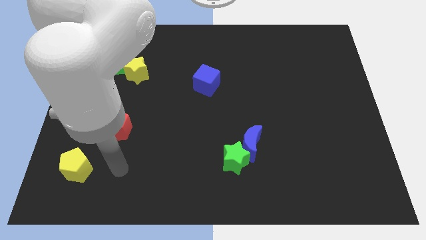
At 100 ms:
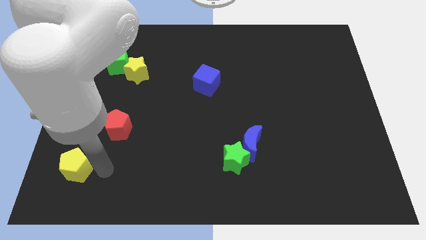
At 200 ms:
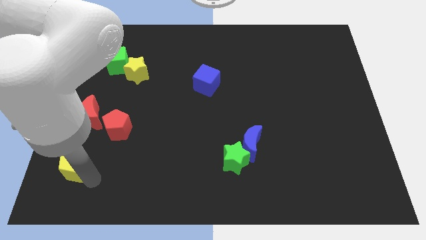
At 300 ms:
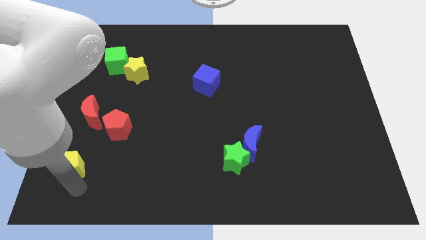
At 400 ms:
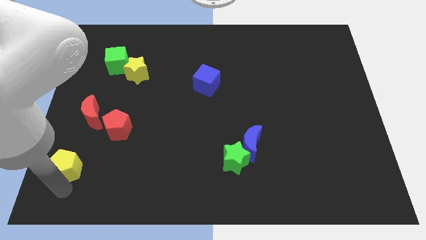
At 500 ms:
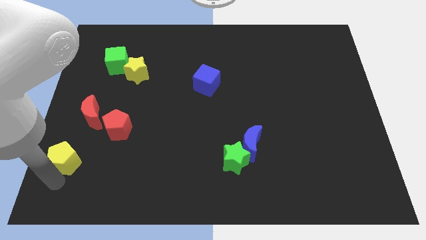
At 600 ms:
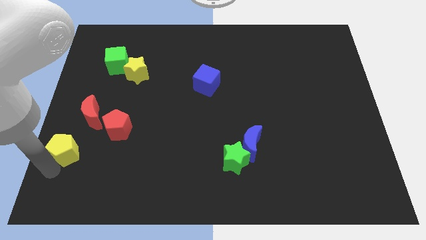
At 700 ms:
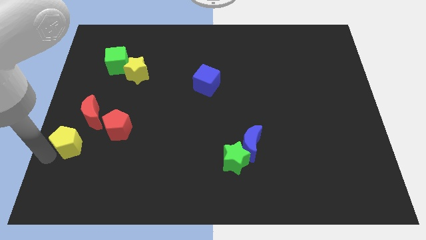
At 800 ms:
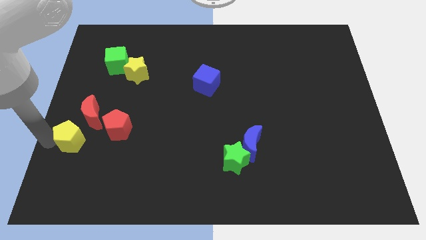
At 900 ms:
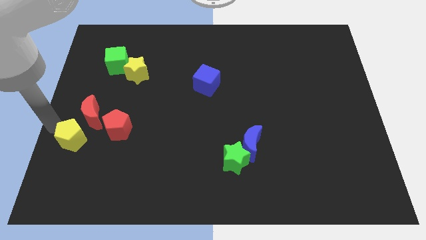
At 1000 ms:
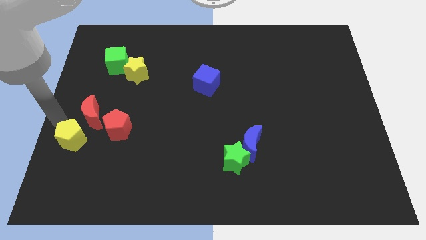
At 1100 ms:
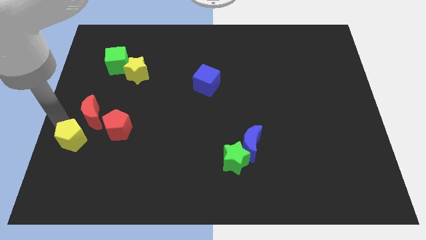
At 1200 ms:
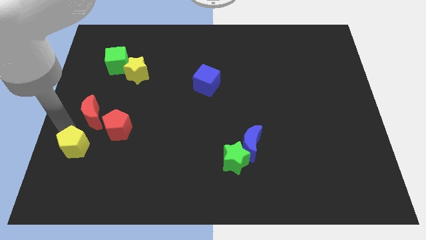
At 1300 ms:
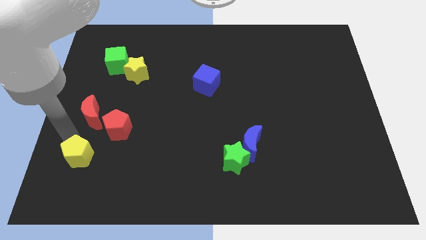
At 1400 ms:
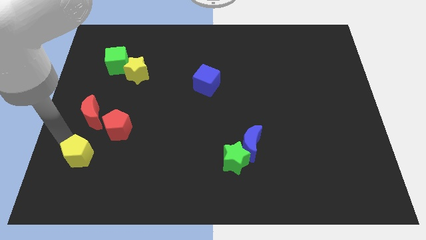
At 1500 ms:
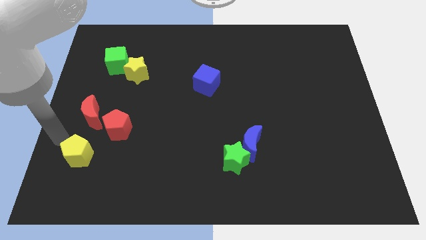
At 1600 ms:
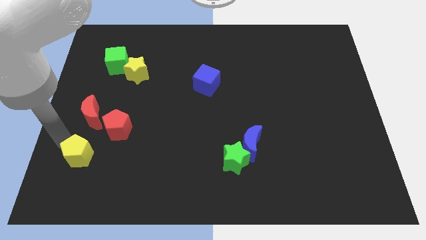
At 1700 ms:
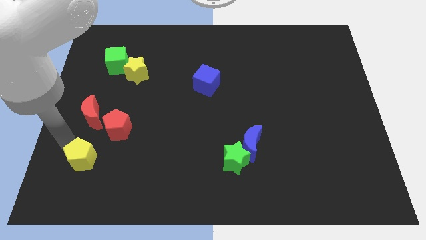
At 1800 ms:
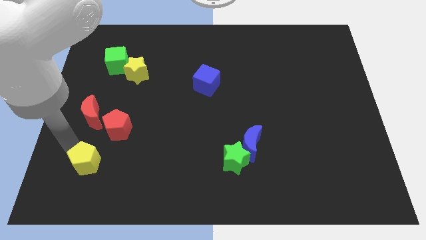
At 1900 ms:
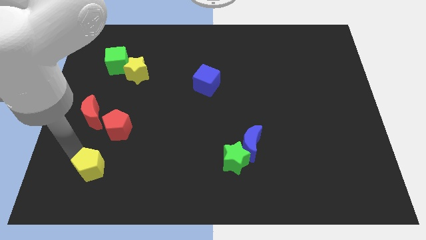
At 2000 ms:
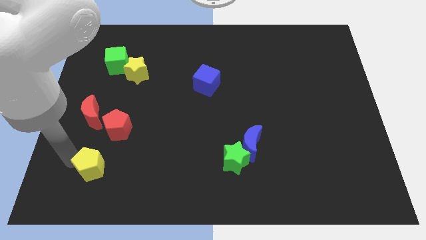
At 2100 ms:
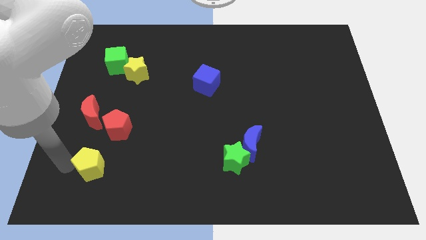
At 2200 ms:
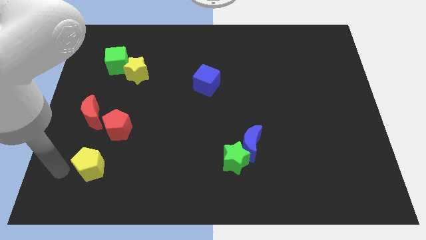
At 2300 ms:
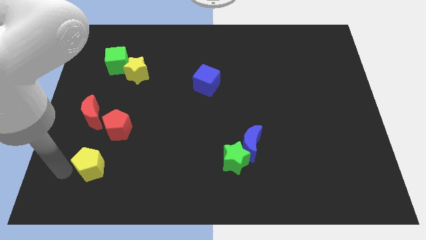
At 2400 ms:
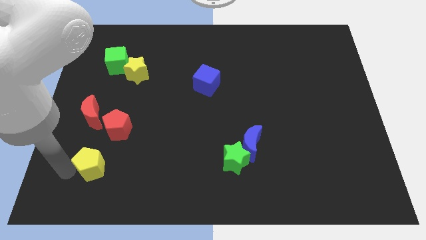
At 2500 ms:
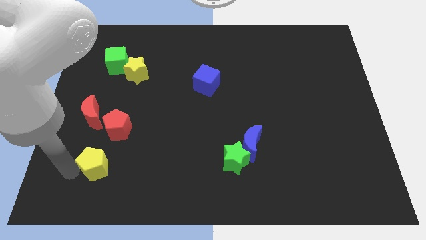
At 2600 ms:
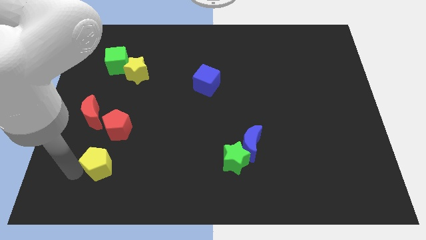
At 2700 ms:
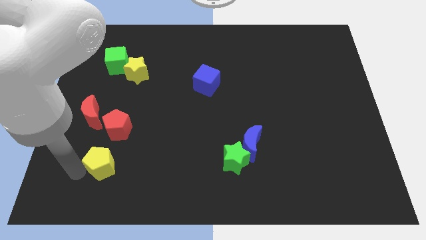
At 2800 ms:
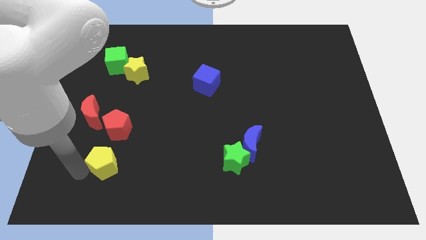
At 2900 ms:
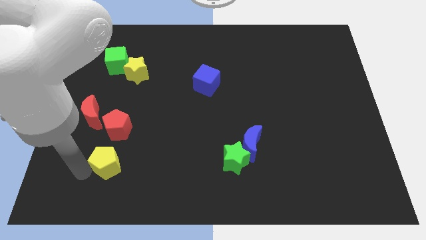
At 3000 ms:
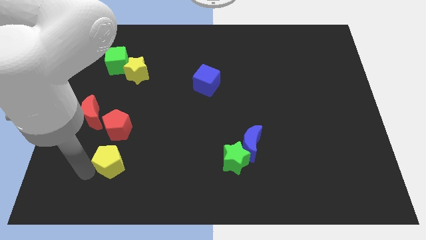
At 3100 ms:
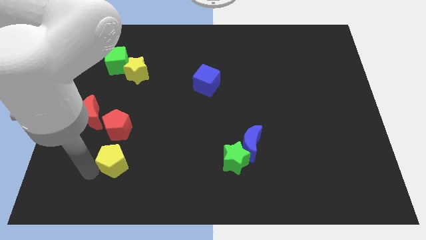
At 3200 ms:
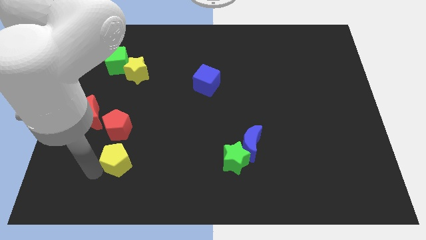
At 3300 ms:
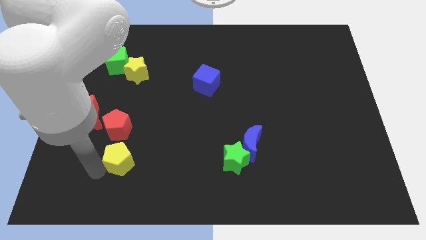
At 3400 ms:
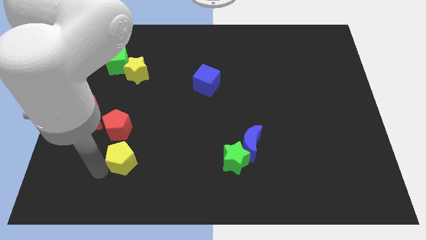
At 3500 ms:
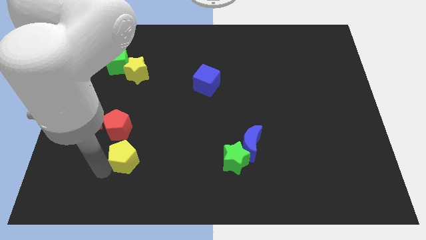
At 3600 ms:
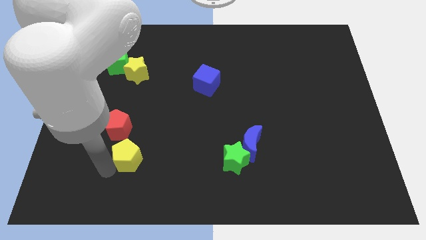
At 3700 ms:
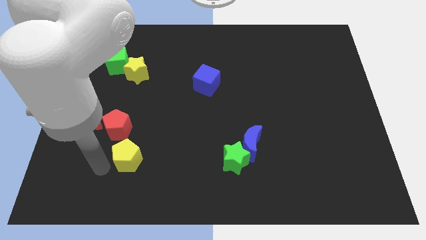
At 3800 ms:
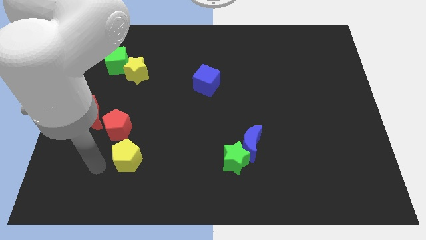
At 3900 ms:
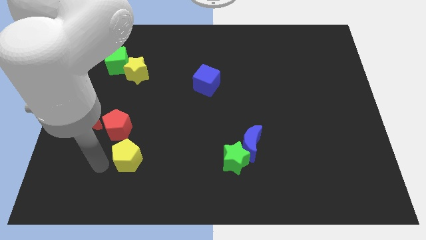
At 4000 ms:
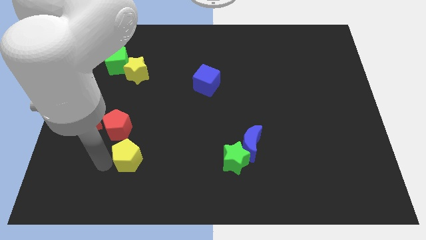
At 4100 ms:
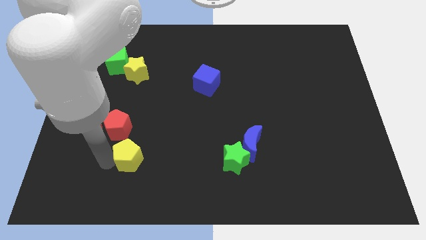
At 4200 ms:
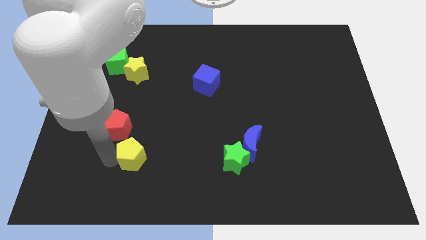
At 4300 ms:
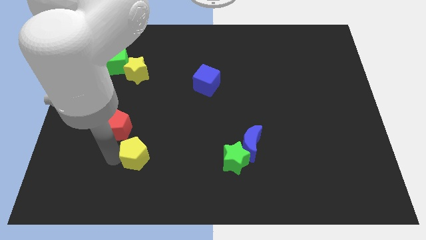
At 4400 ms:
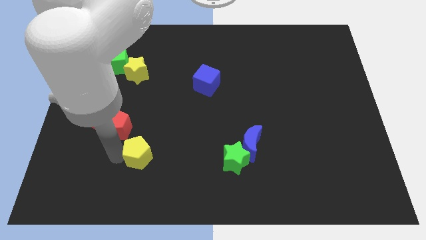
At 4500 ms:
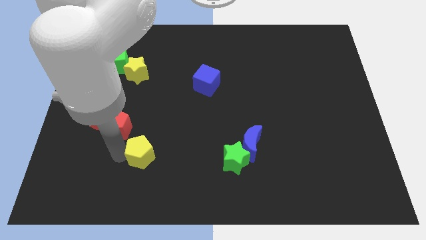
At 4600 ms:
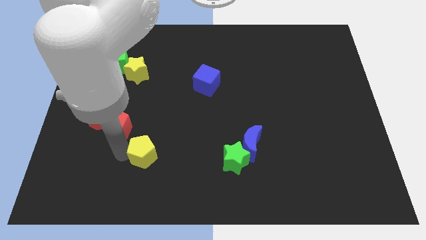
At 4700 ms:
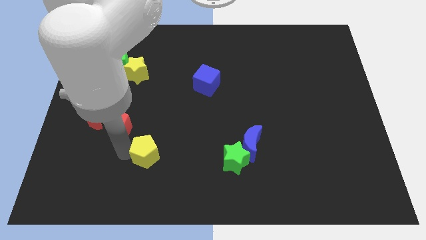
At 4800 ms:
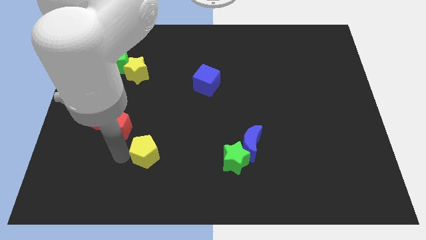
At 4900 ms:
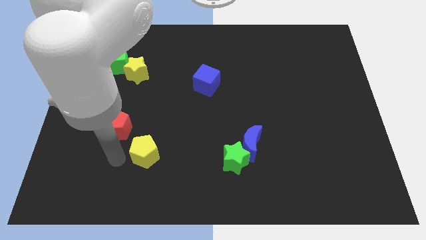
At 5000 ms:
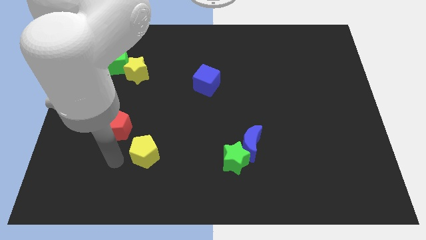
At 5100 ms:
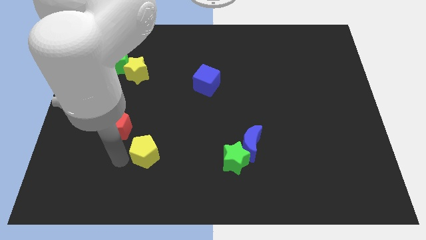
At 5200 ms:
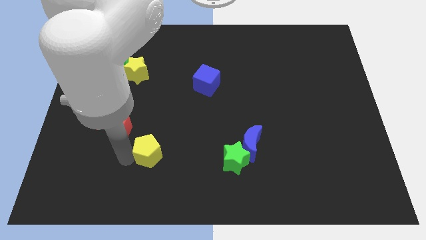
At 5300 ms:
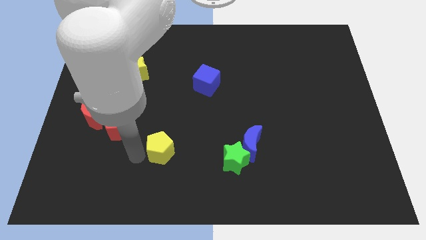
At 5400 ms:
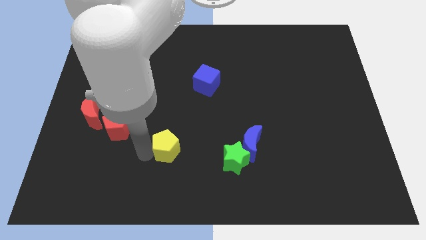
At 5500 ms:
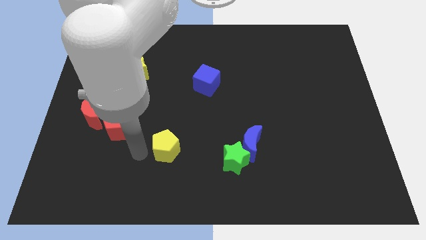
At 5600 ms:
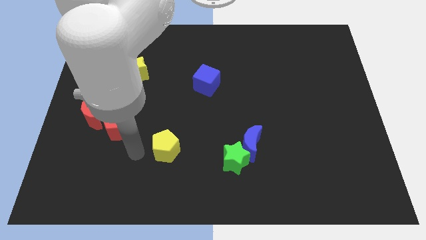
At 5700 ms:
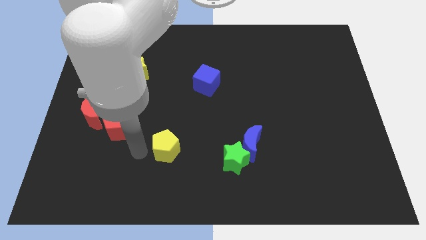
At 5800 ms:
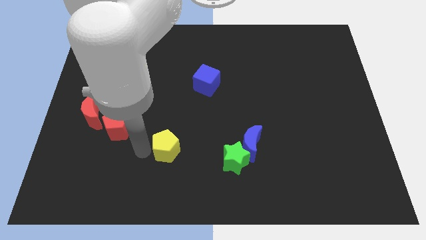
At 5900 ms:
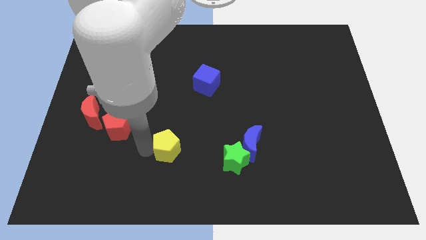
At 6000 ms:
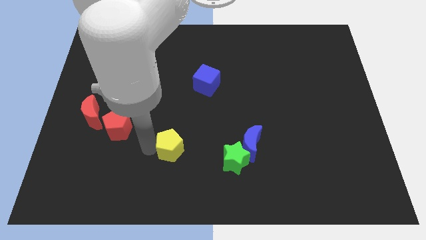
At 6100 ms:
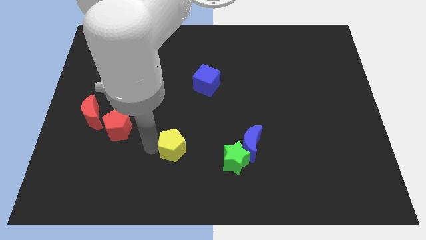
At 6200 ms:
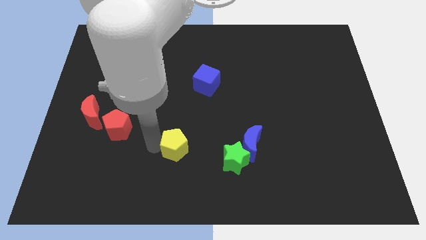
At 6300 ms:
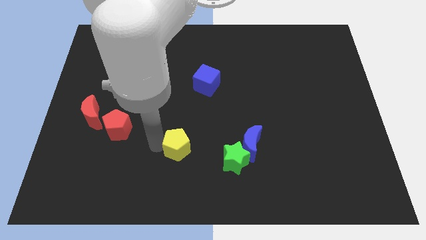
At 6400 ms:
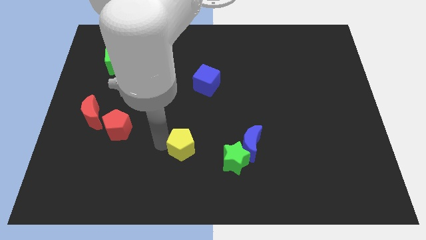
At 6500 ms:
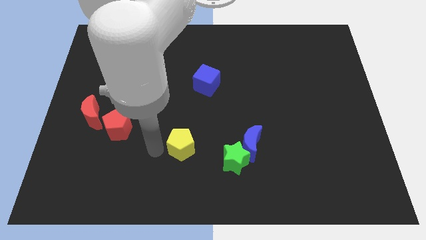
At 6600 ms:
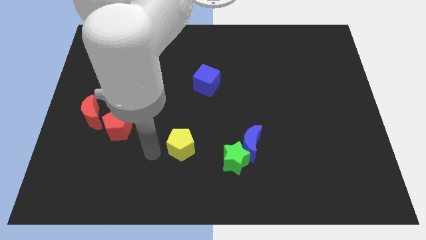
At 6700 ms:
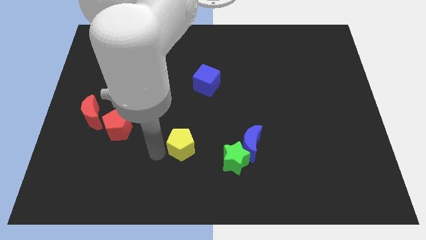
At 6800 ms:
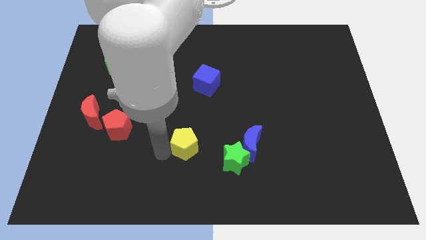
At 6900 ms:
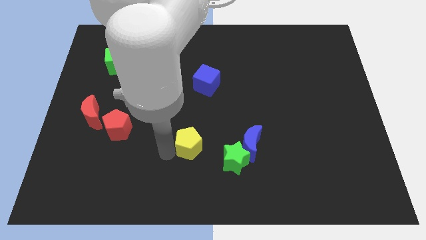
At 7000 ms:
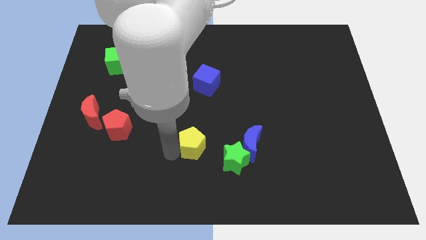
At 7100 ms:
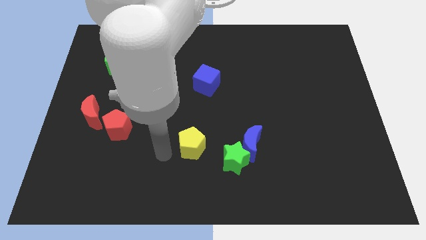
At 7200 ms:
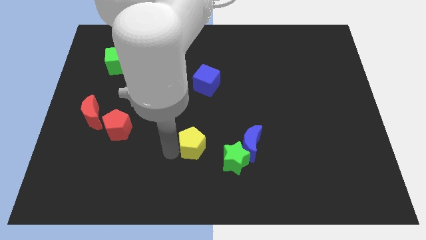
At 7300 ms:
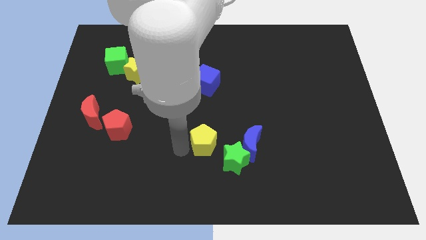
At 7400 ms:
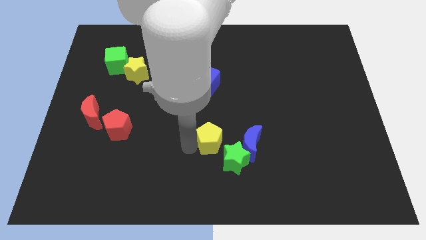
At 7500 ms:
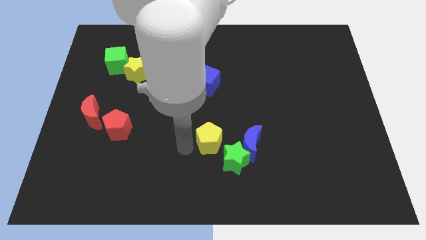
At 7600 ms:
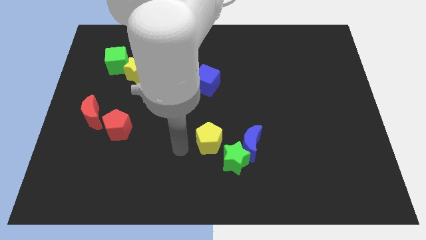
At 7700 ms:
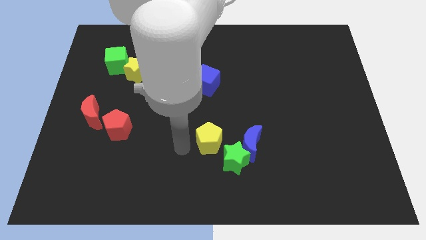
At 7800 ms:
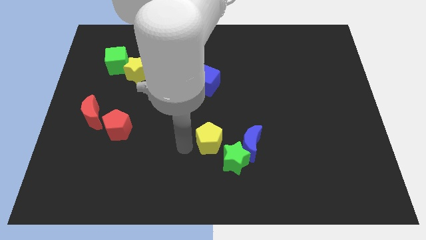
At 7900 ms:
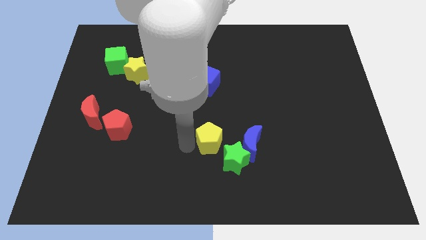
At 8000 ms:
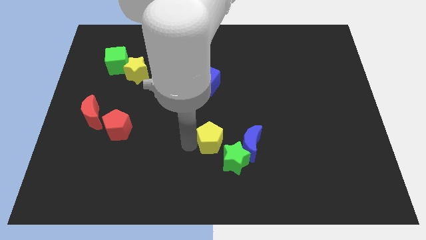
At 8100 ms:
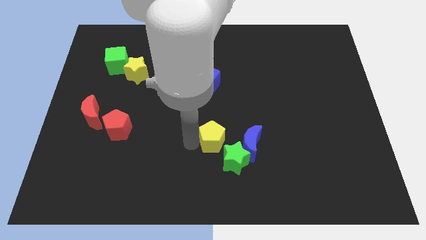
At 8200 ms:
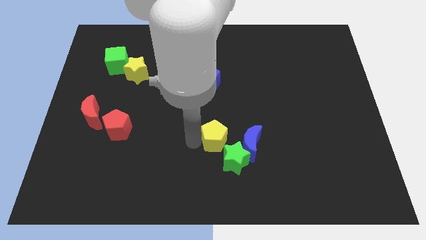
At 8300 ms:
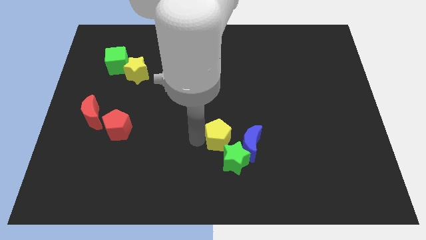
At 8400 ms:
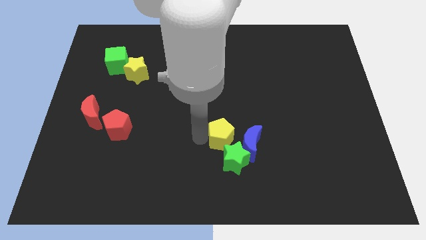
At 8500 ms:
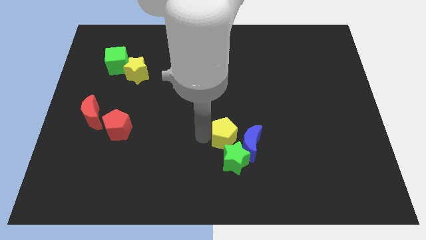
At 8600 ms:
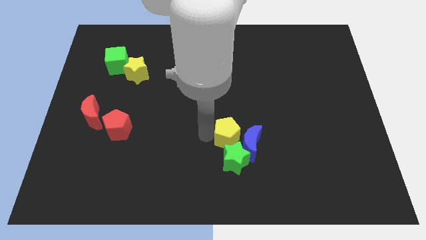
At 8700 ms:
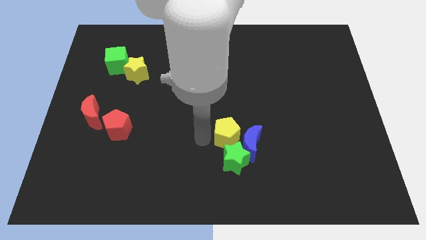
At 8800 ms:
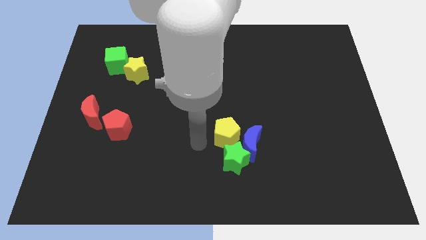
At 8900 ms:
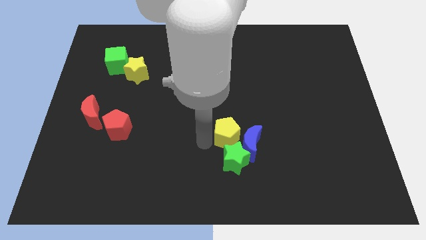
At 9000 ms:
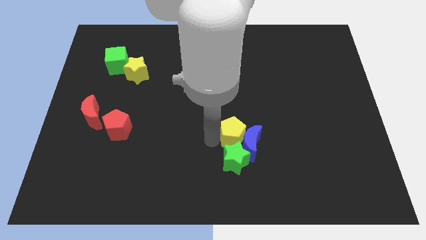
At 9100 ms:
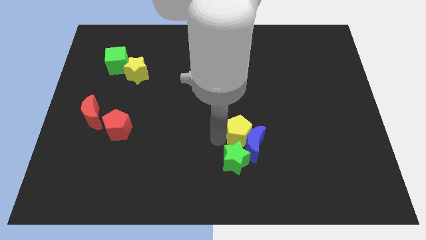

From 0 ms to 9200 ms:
move the yellow pentagon to the top right side of the green star
